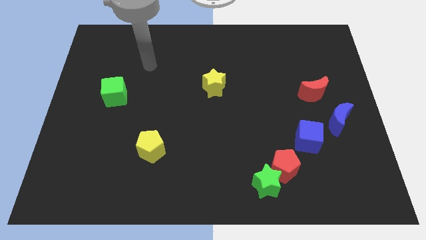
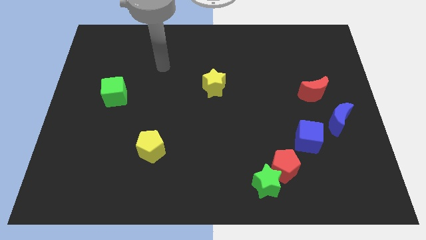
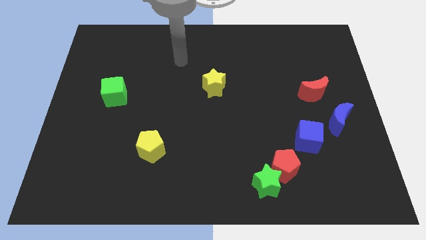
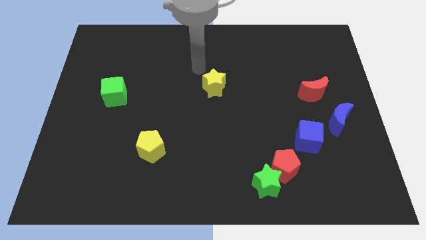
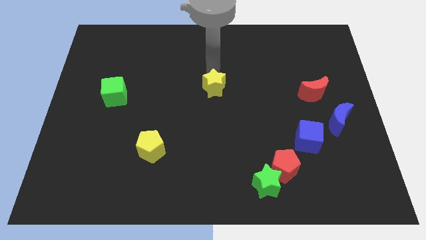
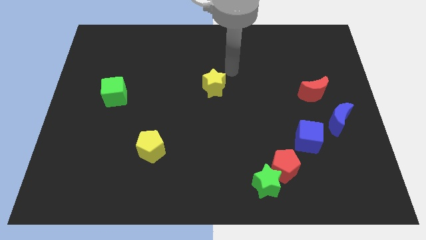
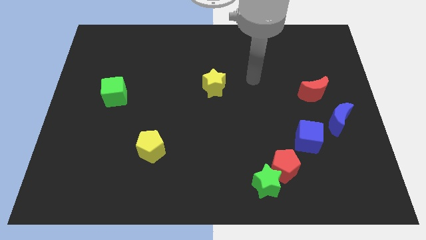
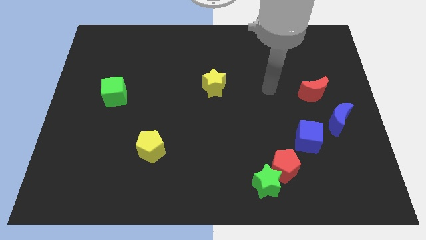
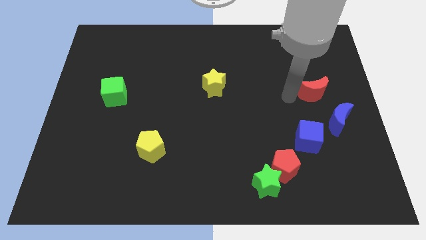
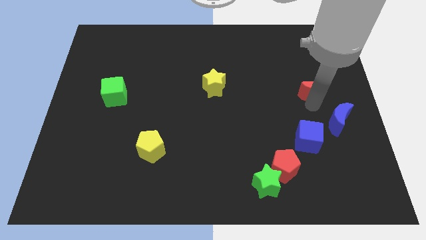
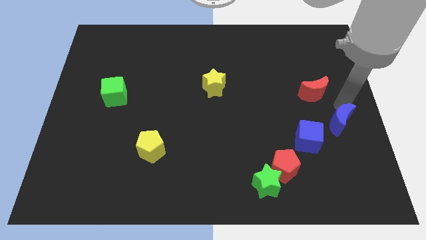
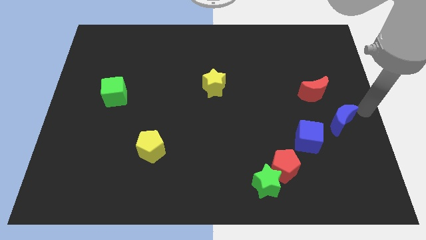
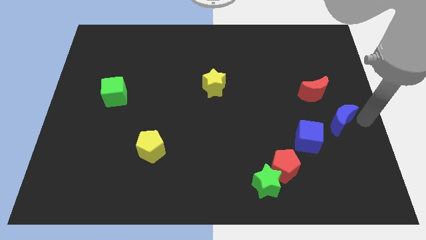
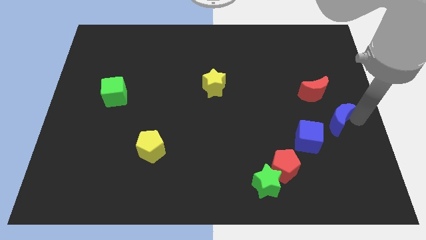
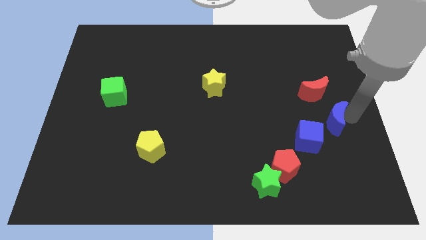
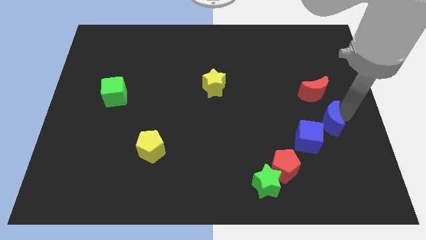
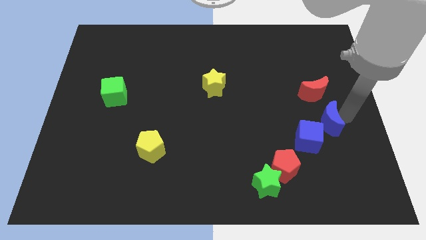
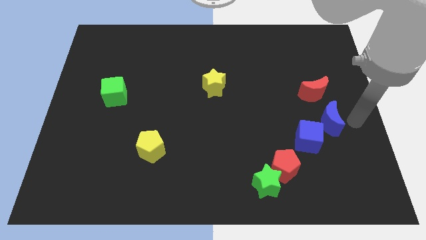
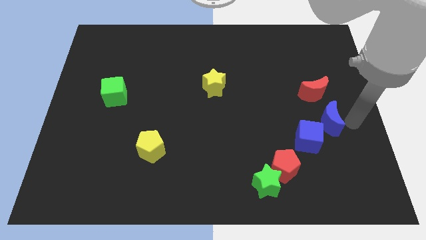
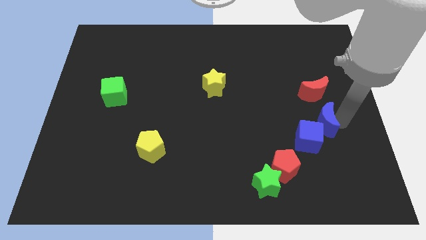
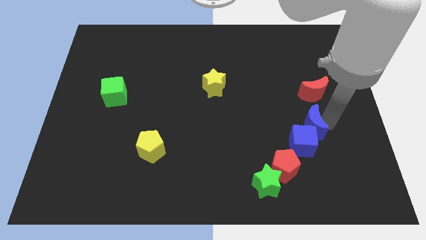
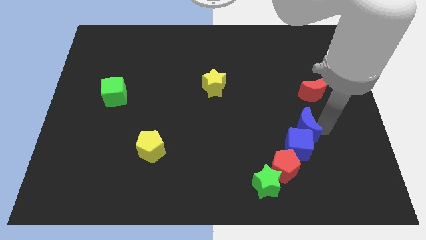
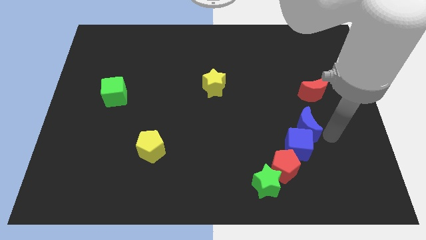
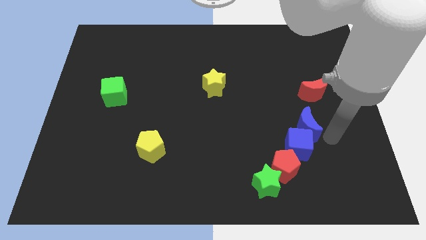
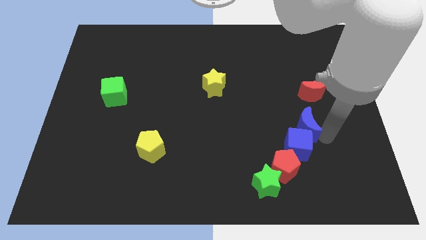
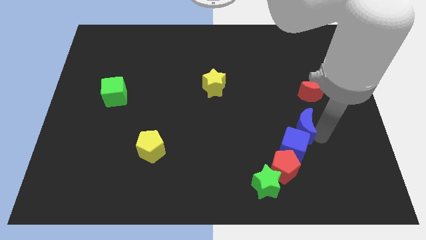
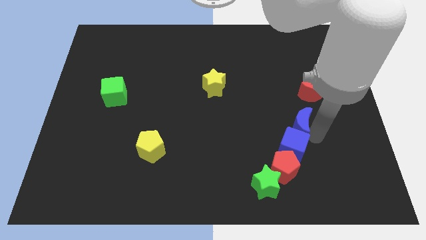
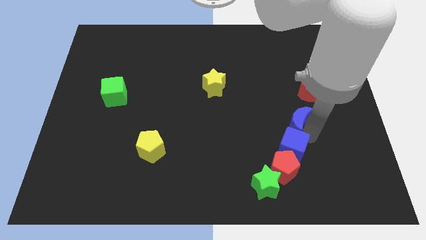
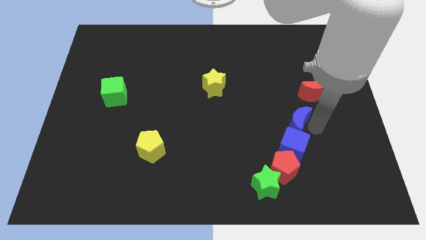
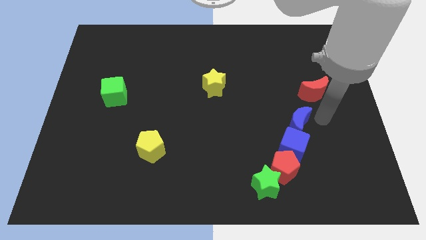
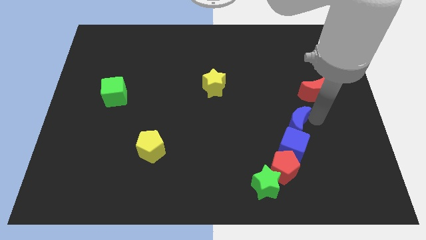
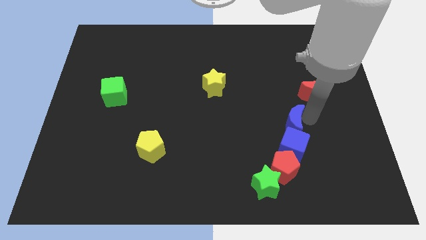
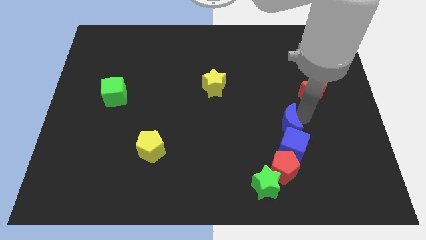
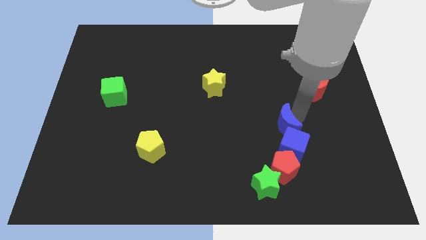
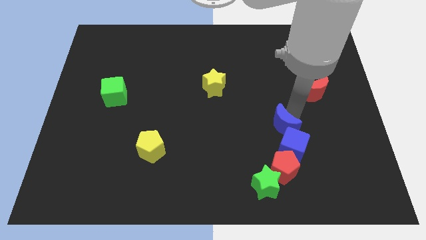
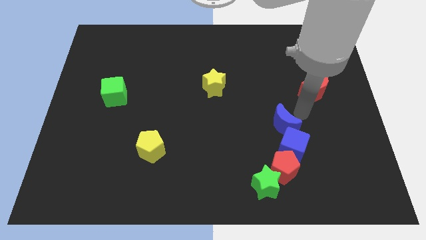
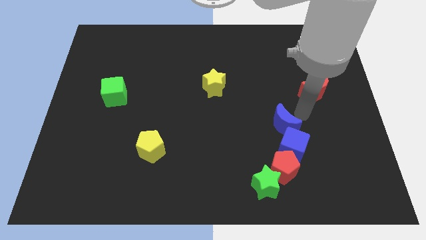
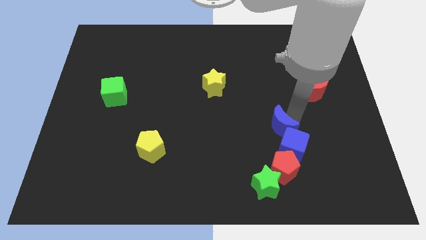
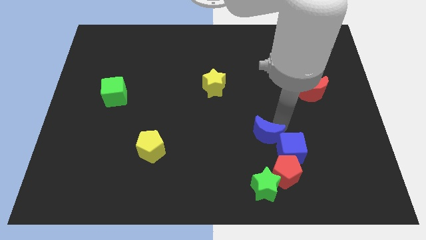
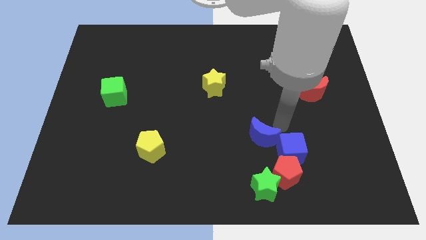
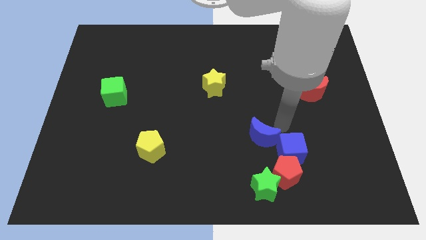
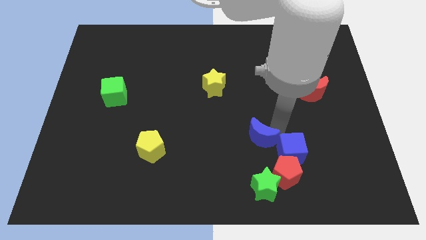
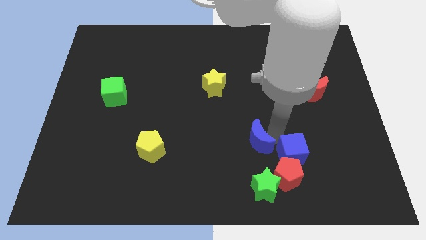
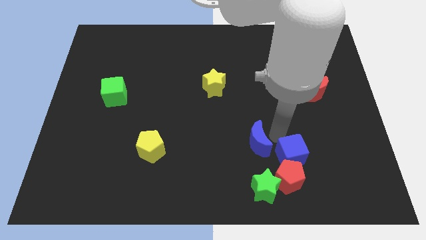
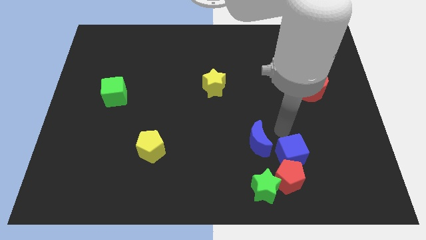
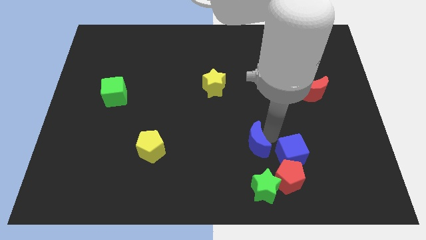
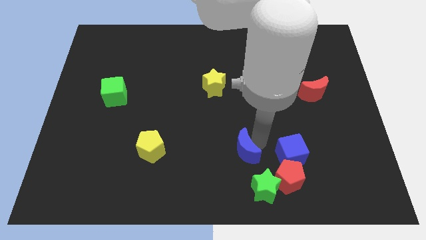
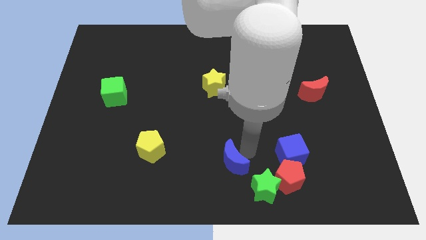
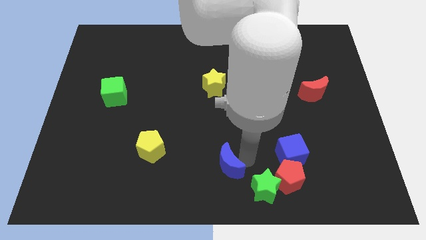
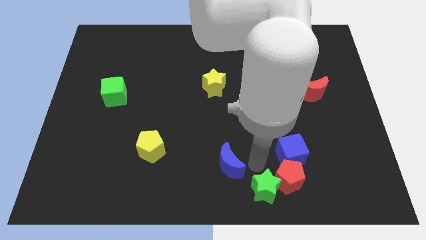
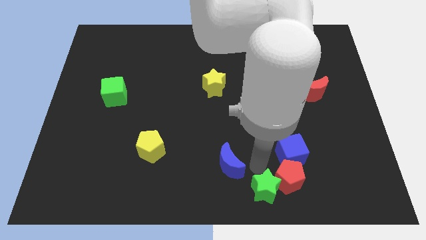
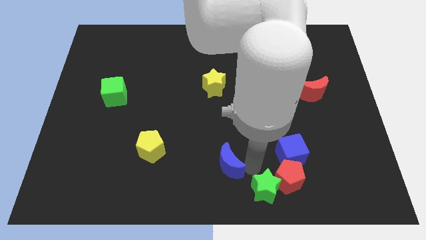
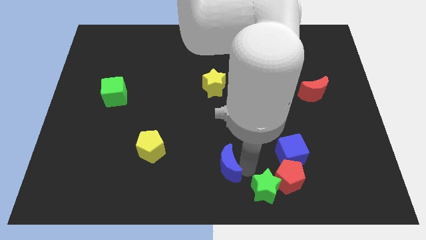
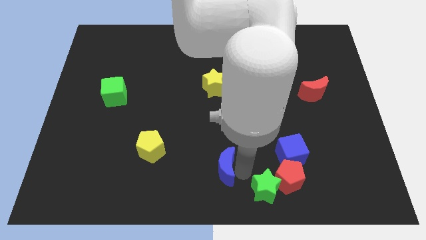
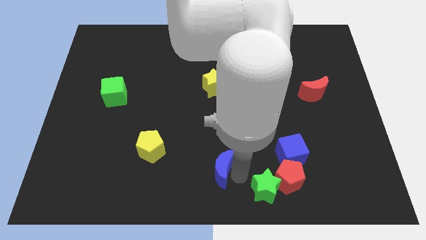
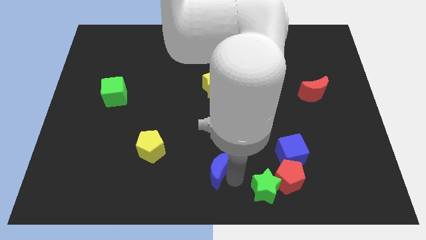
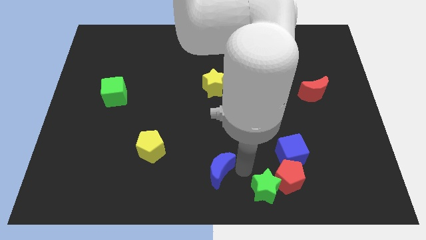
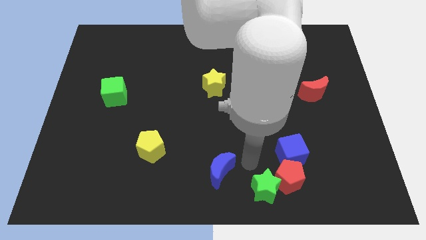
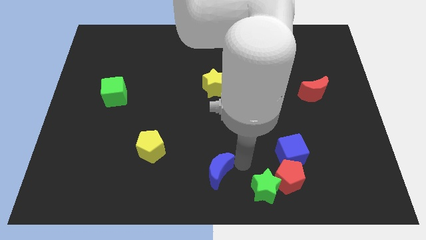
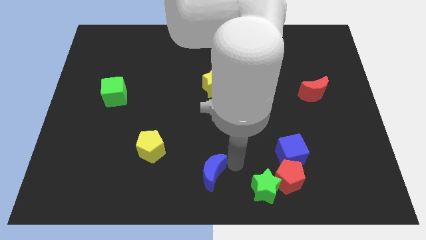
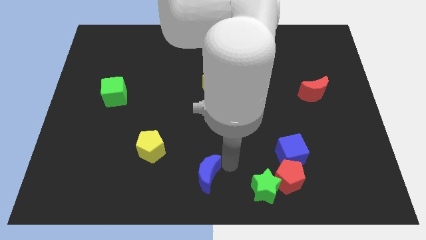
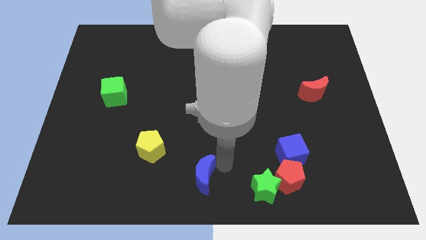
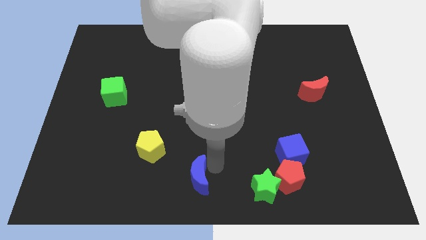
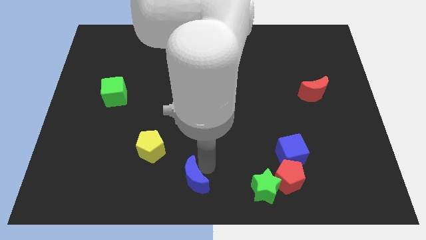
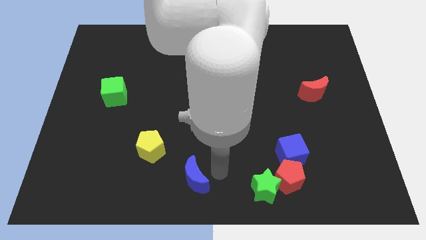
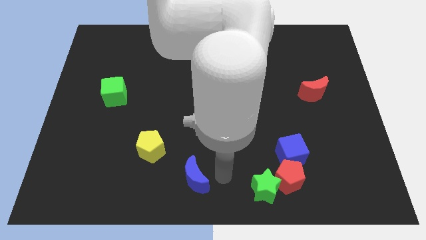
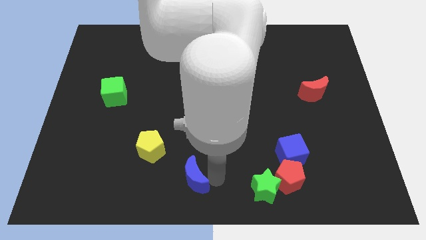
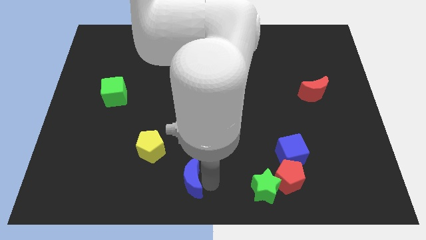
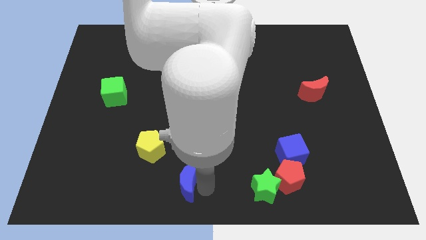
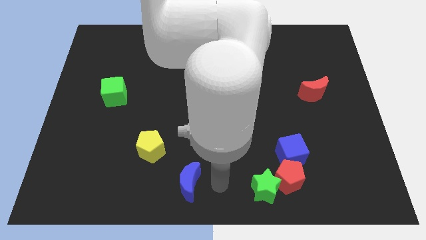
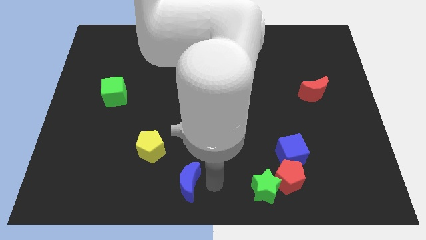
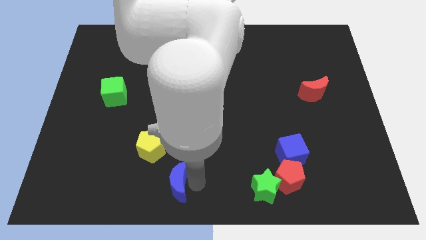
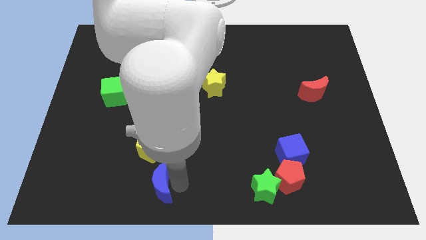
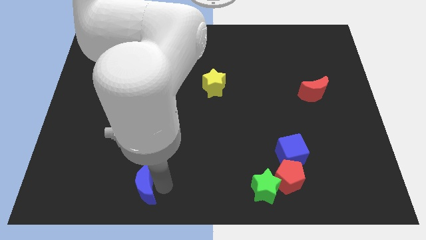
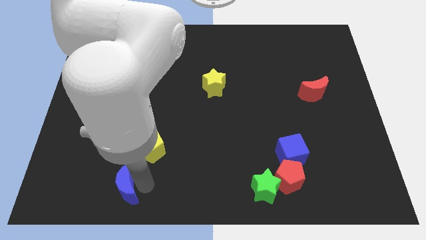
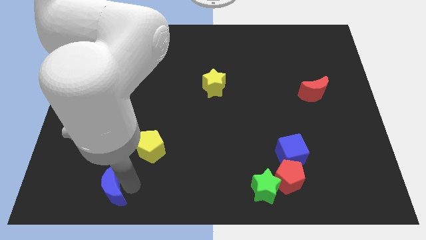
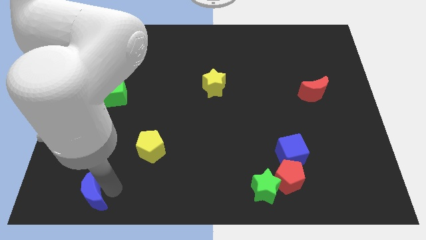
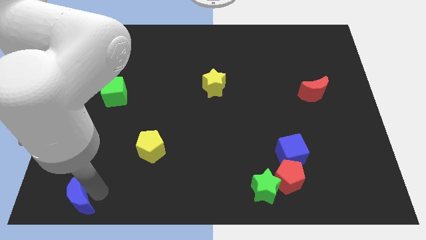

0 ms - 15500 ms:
slide the blue moon to the bottom left

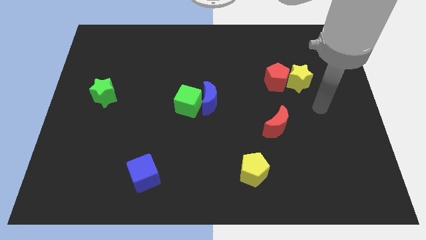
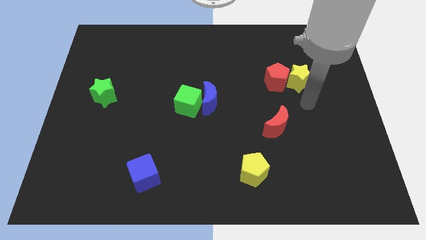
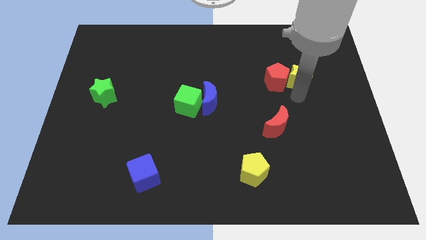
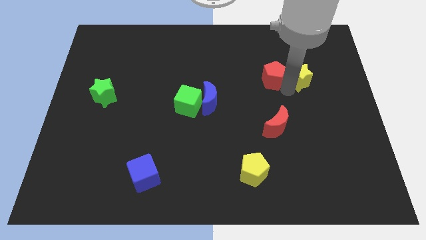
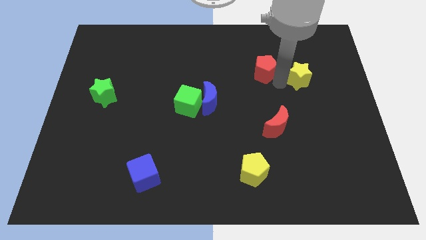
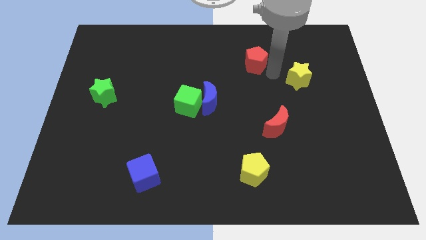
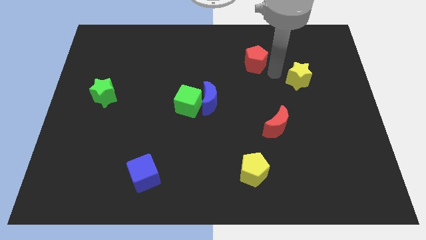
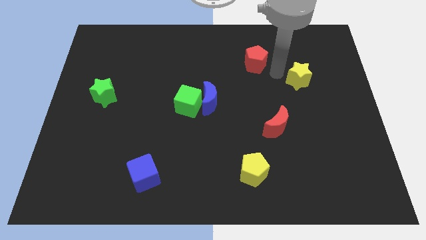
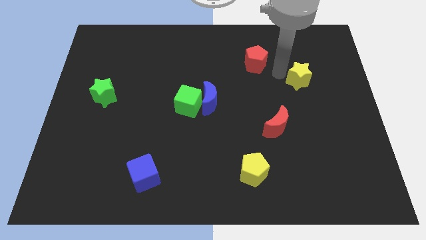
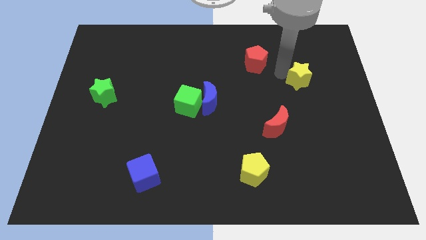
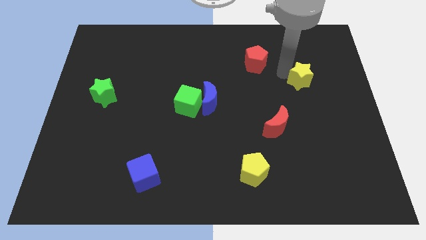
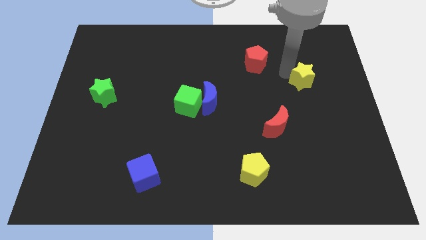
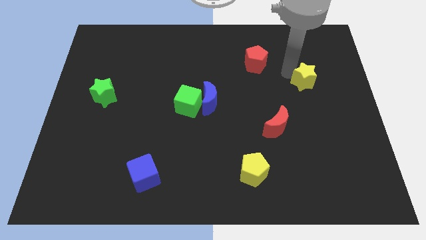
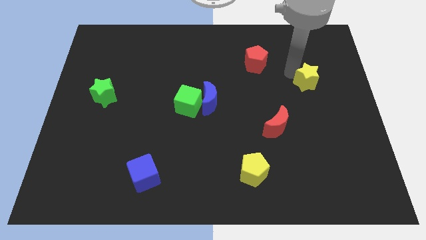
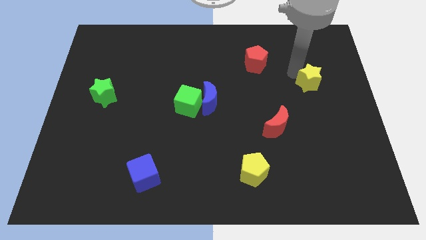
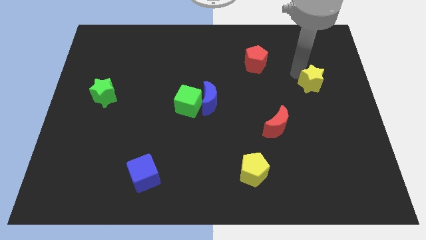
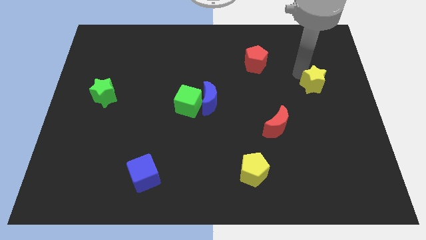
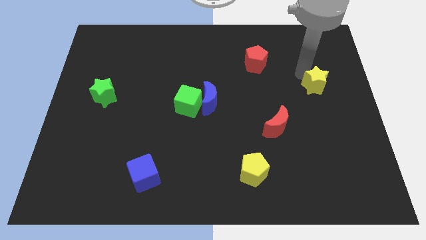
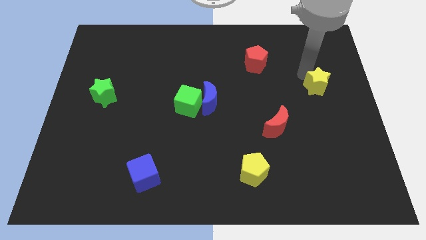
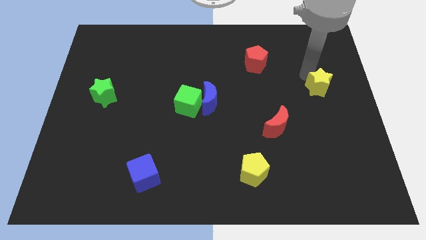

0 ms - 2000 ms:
slide the yellow star to the right side of the board
